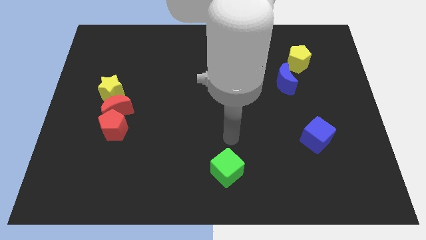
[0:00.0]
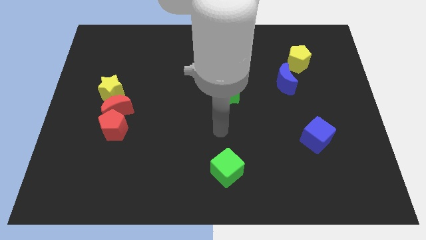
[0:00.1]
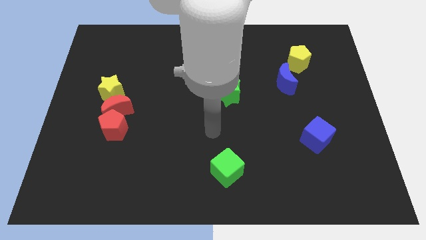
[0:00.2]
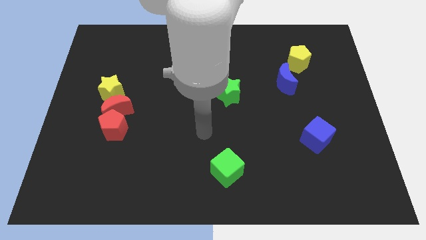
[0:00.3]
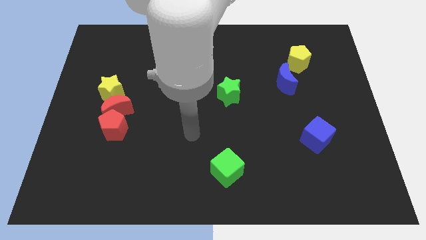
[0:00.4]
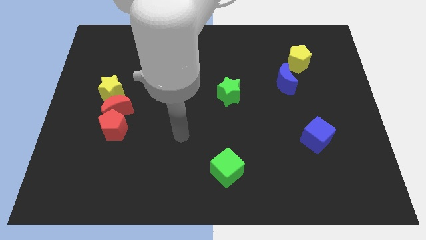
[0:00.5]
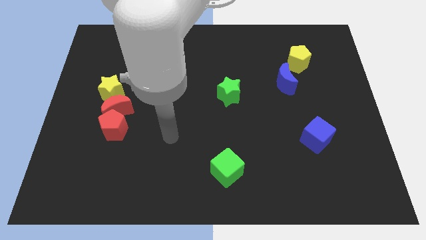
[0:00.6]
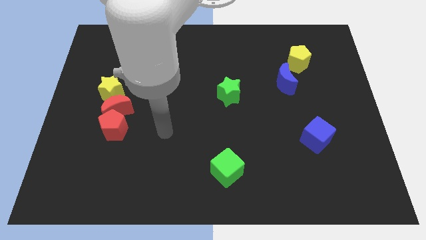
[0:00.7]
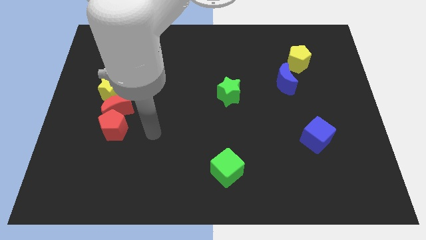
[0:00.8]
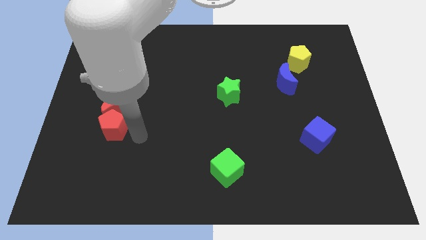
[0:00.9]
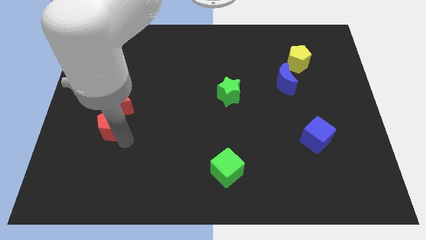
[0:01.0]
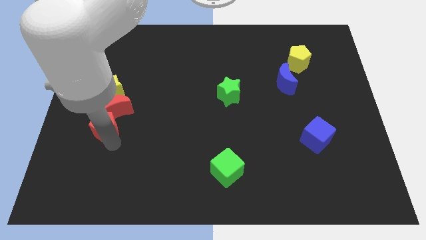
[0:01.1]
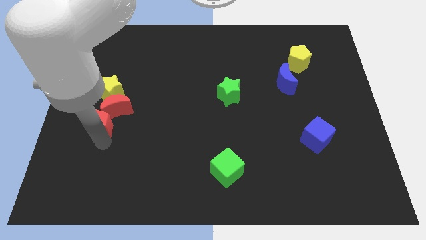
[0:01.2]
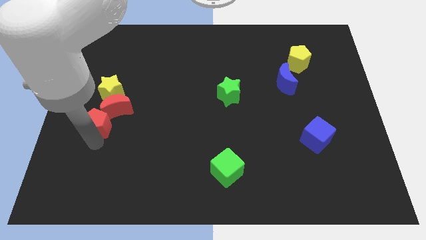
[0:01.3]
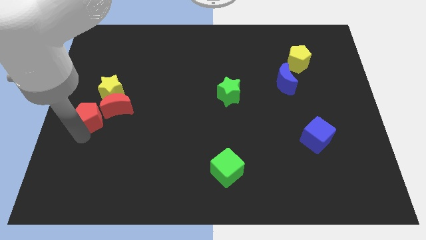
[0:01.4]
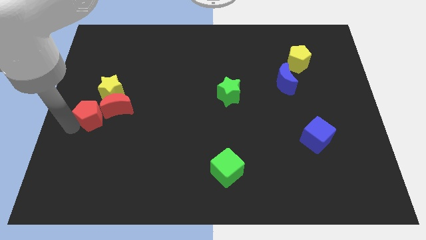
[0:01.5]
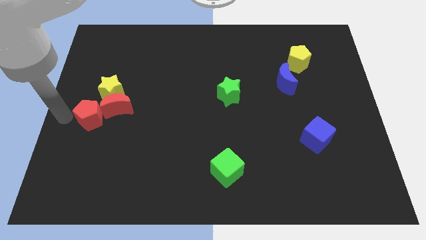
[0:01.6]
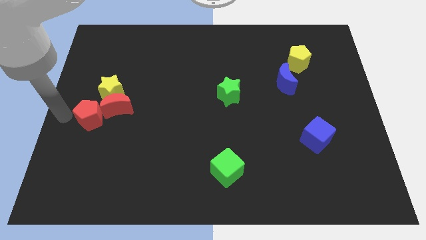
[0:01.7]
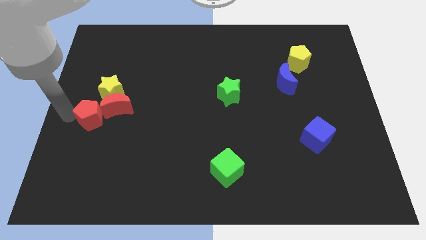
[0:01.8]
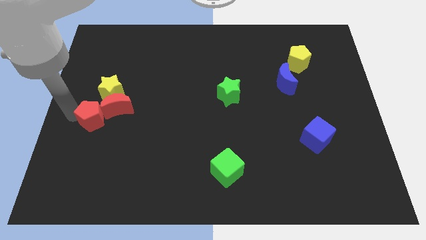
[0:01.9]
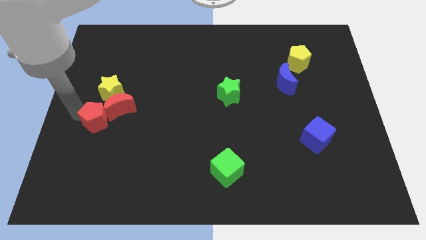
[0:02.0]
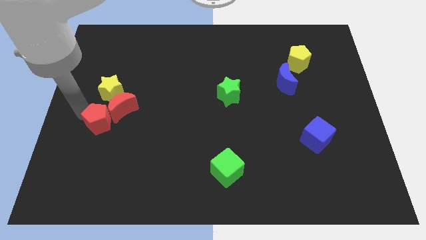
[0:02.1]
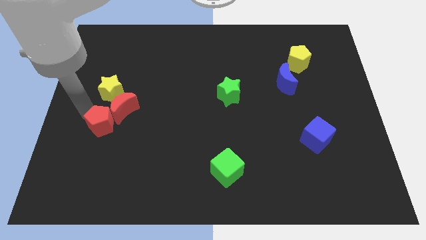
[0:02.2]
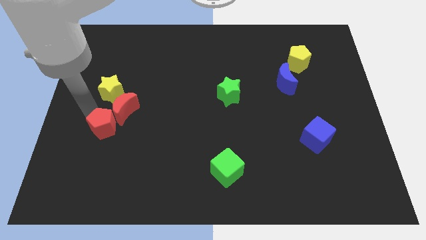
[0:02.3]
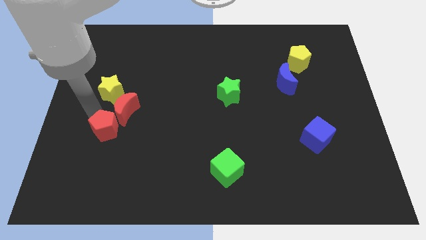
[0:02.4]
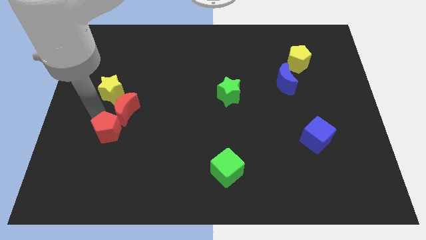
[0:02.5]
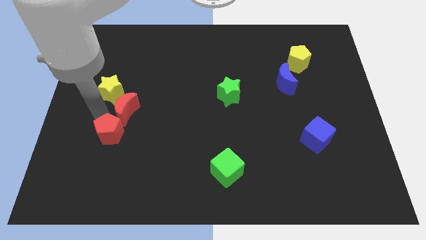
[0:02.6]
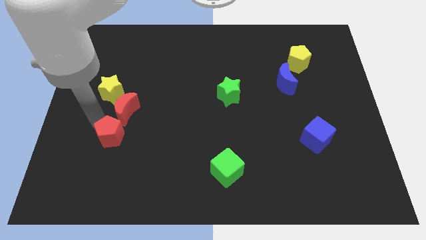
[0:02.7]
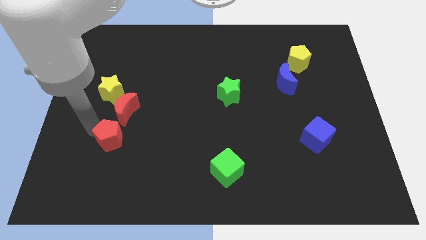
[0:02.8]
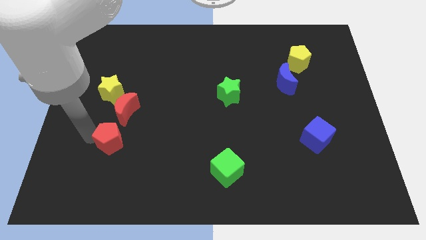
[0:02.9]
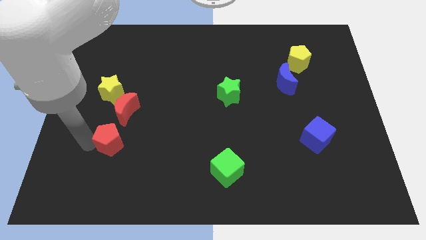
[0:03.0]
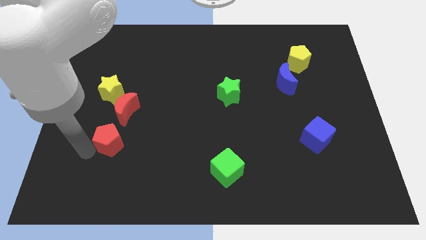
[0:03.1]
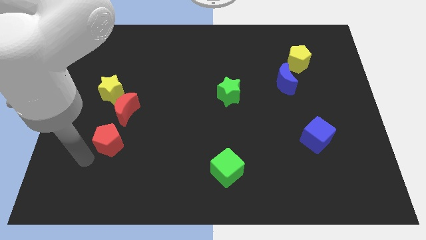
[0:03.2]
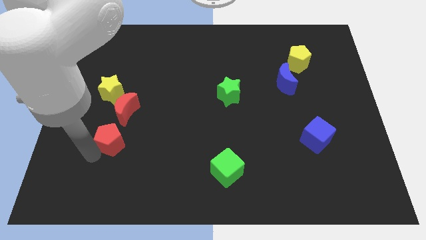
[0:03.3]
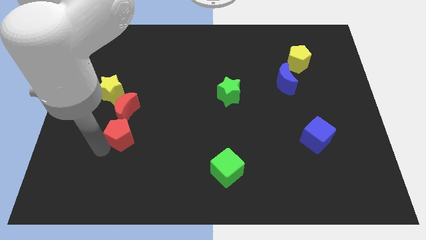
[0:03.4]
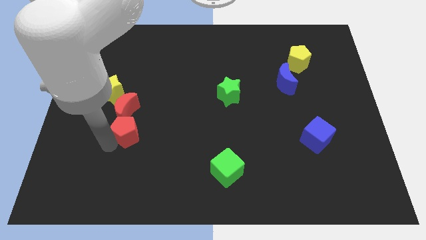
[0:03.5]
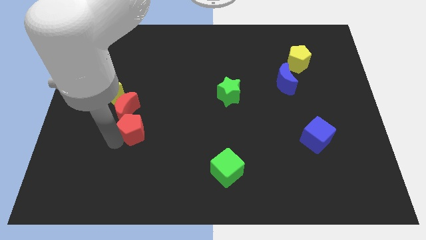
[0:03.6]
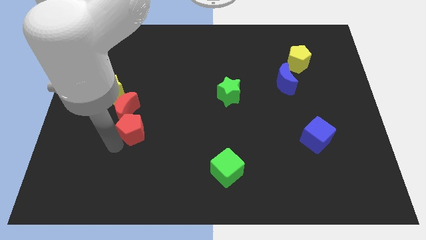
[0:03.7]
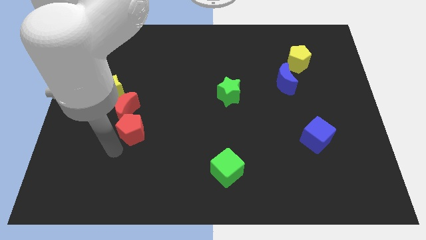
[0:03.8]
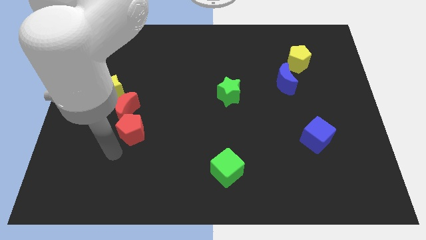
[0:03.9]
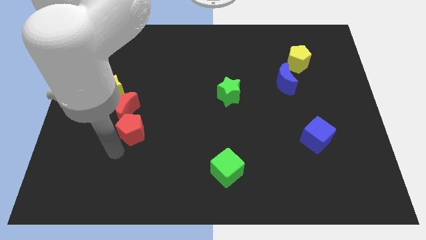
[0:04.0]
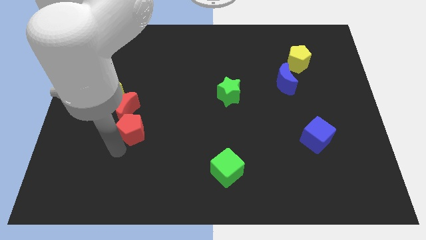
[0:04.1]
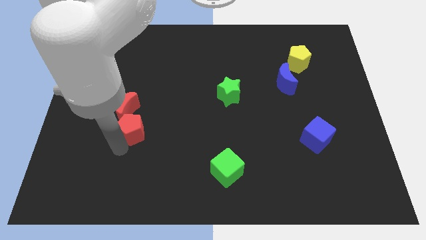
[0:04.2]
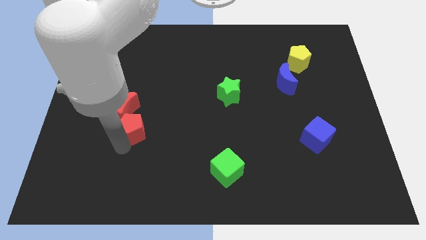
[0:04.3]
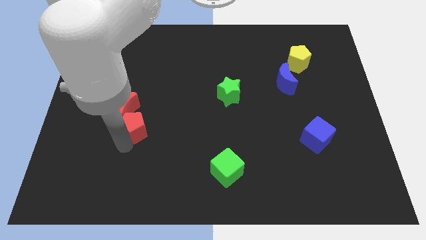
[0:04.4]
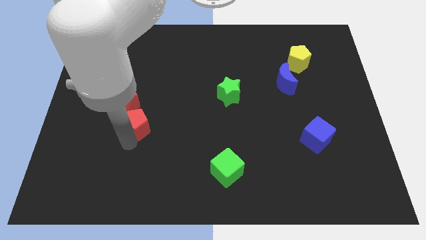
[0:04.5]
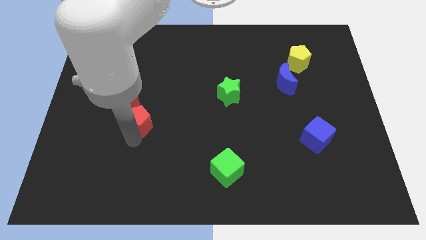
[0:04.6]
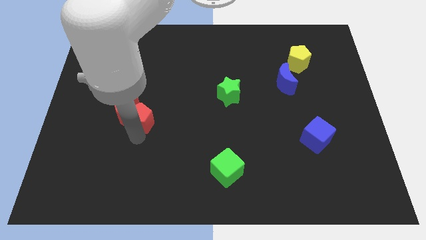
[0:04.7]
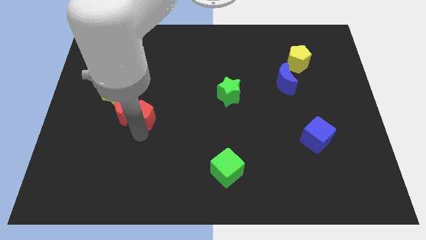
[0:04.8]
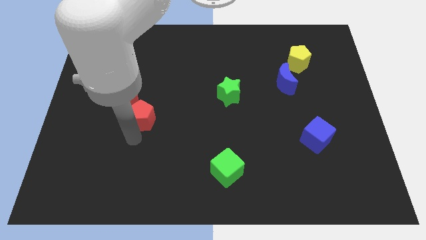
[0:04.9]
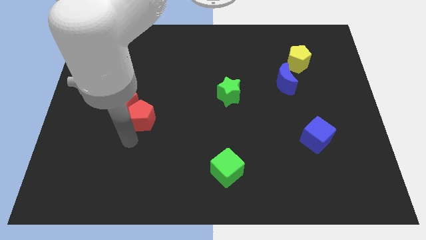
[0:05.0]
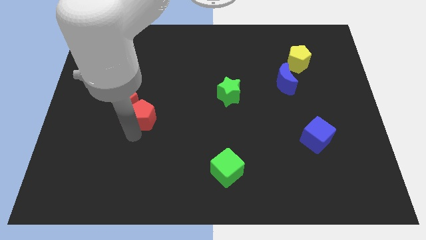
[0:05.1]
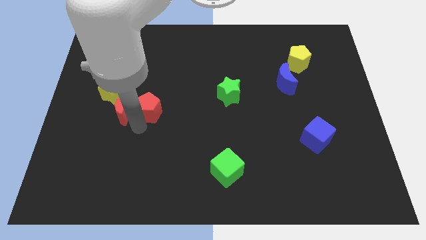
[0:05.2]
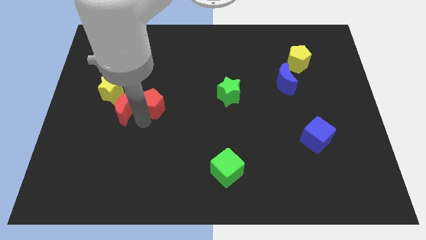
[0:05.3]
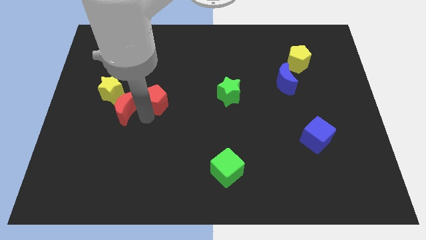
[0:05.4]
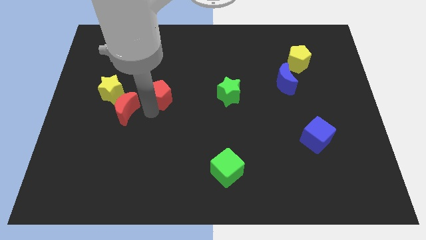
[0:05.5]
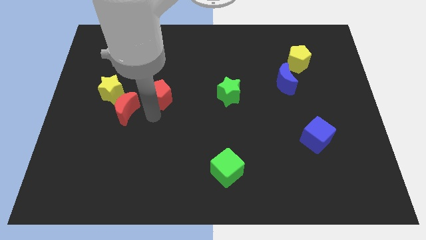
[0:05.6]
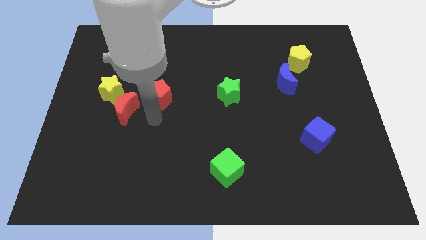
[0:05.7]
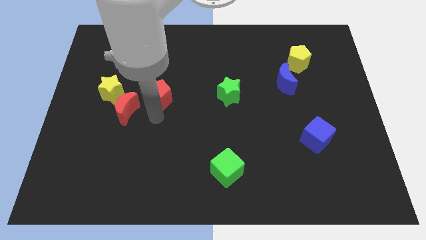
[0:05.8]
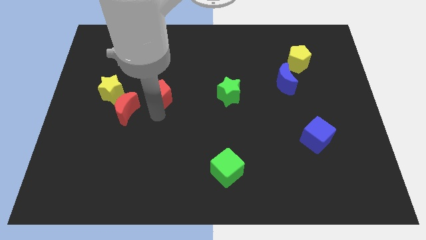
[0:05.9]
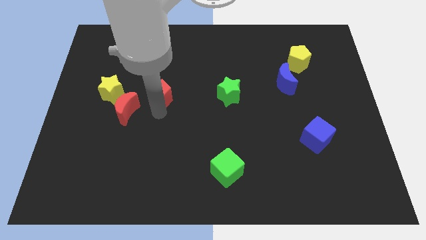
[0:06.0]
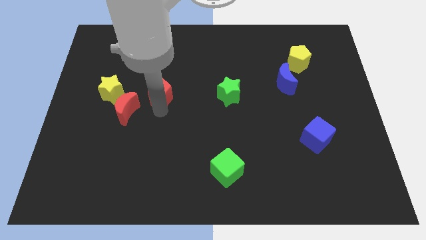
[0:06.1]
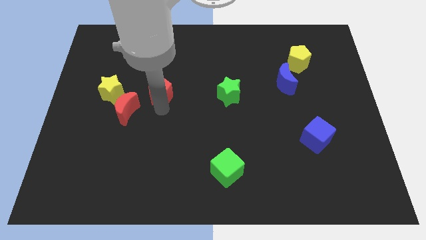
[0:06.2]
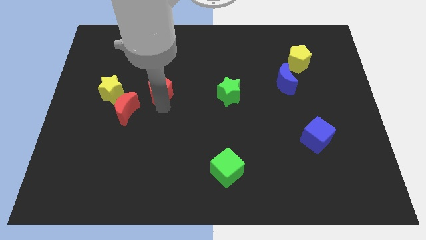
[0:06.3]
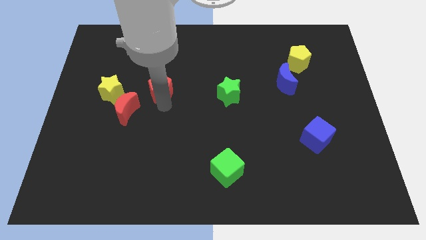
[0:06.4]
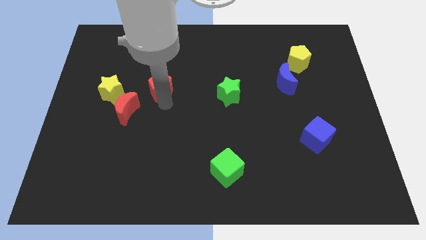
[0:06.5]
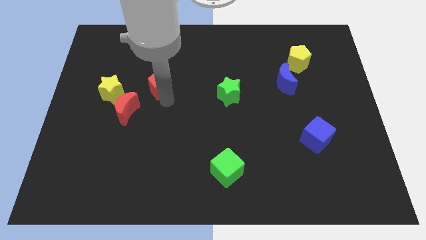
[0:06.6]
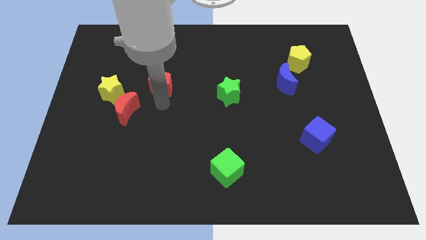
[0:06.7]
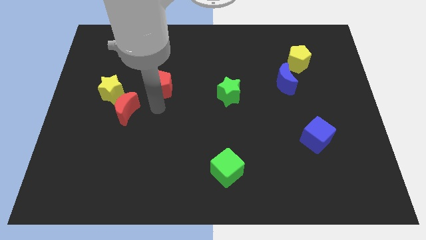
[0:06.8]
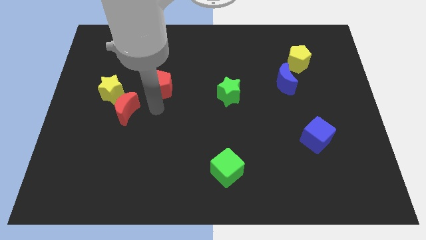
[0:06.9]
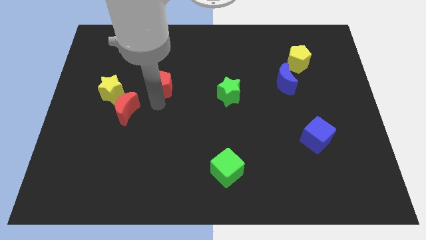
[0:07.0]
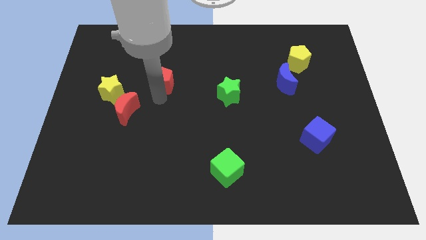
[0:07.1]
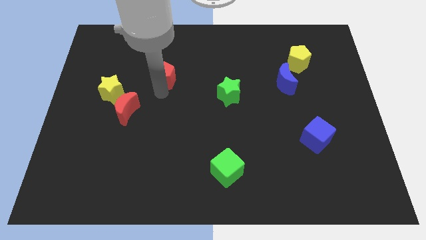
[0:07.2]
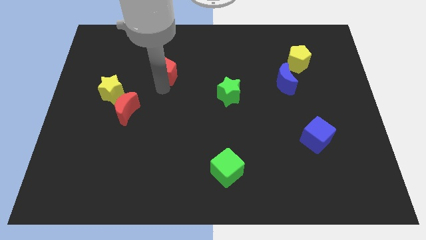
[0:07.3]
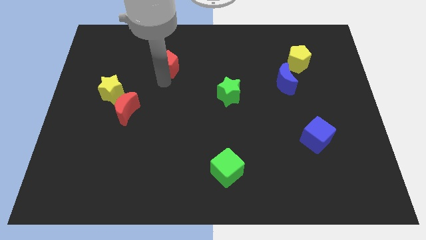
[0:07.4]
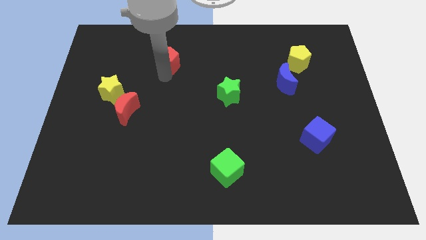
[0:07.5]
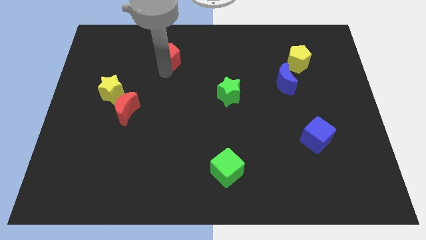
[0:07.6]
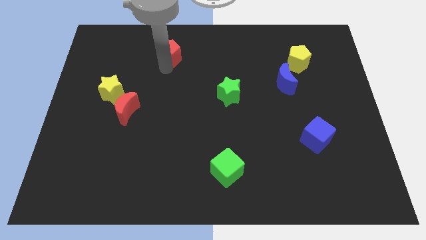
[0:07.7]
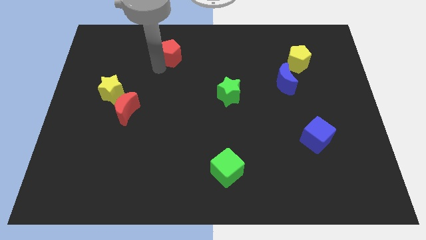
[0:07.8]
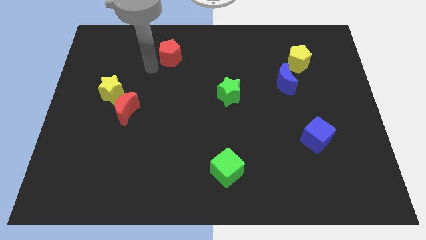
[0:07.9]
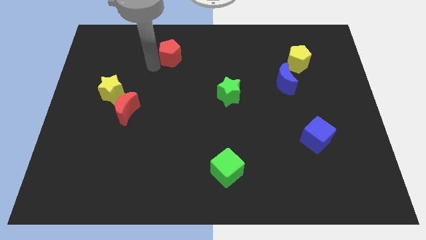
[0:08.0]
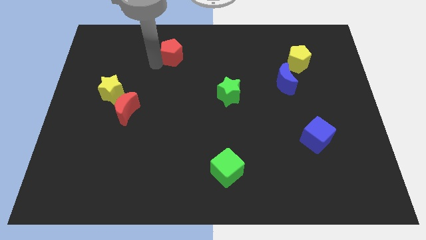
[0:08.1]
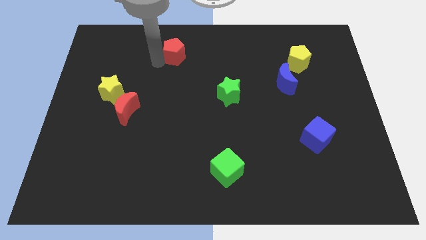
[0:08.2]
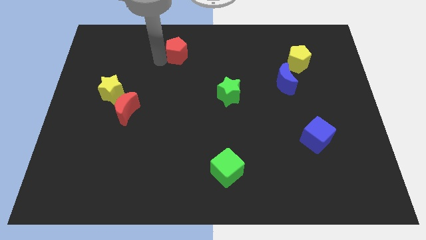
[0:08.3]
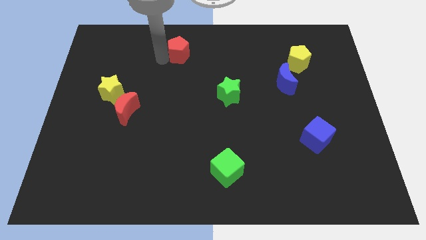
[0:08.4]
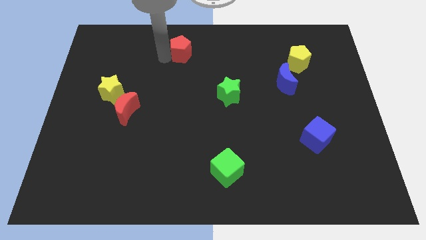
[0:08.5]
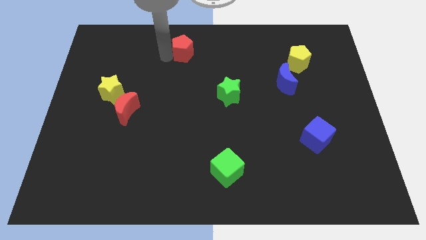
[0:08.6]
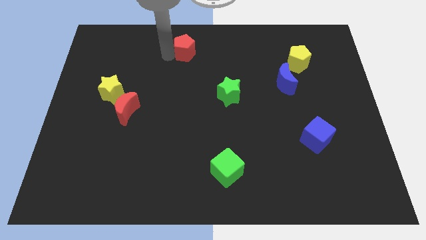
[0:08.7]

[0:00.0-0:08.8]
slide the red pentagon to the top side
